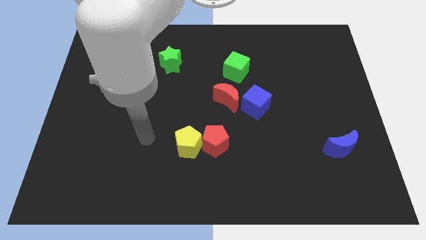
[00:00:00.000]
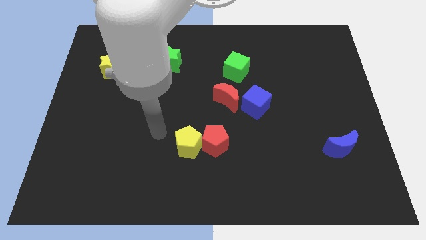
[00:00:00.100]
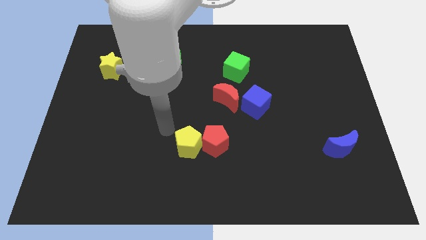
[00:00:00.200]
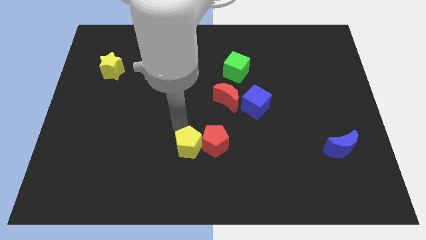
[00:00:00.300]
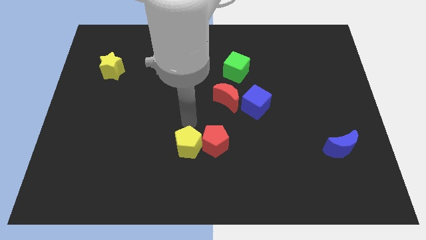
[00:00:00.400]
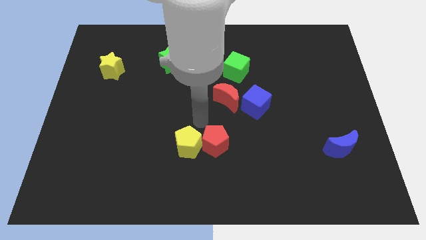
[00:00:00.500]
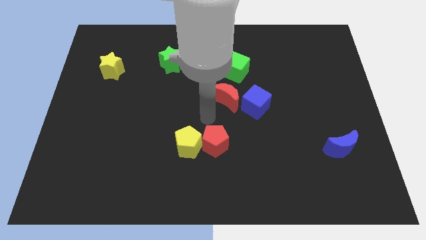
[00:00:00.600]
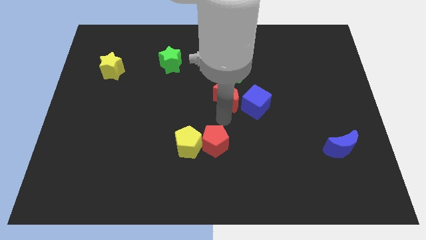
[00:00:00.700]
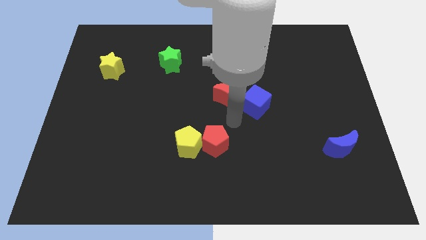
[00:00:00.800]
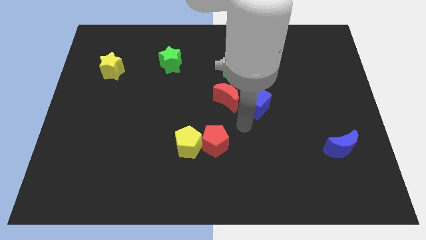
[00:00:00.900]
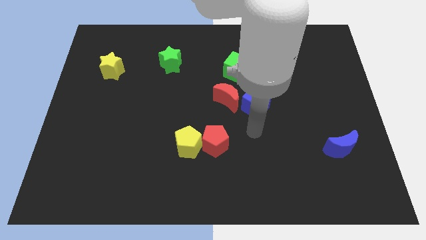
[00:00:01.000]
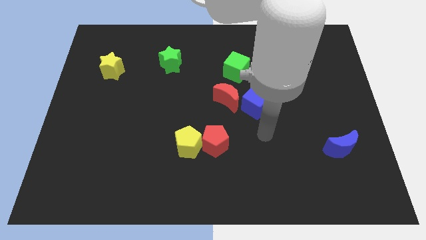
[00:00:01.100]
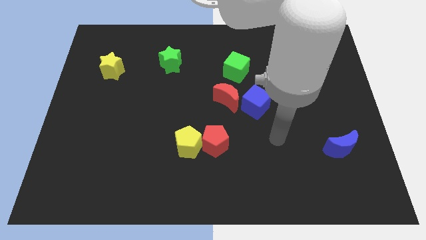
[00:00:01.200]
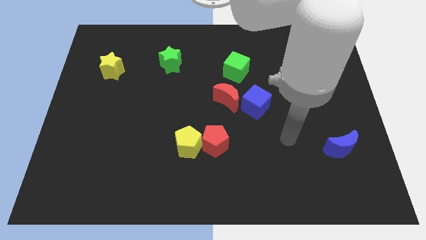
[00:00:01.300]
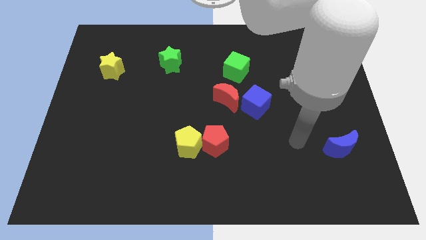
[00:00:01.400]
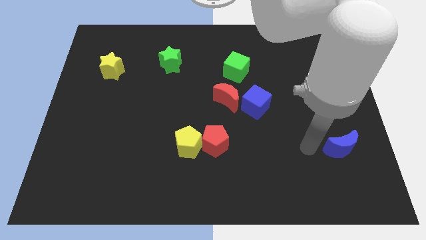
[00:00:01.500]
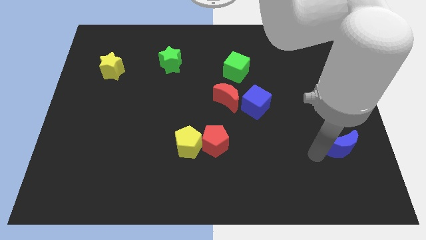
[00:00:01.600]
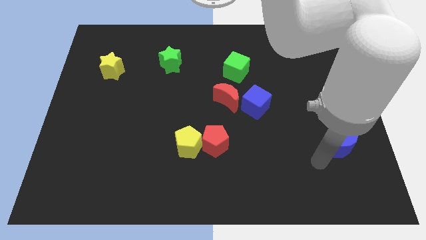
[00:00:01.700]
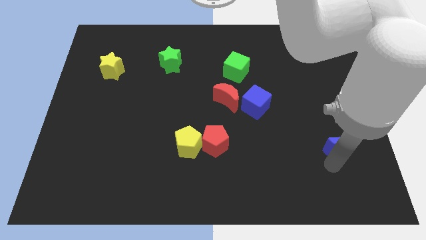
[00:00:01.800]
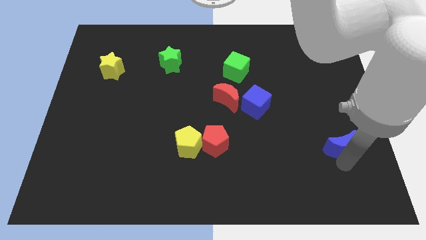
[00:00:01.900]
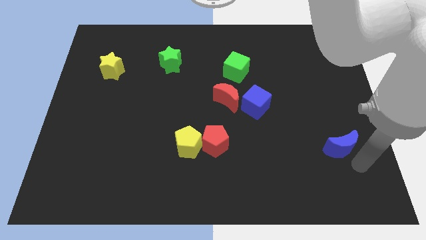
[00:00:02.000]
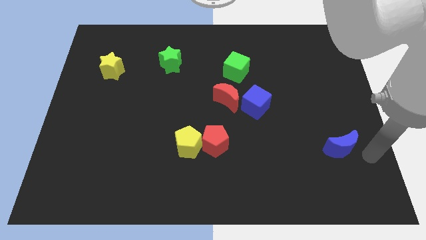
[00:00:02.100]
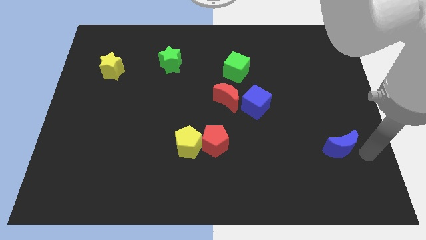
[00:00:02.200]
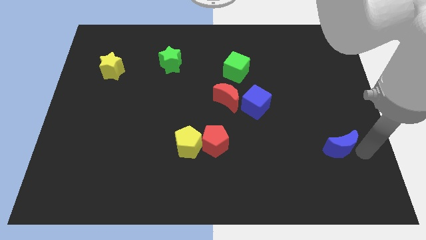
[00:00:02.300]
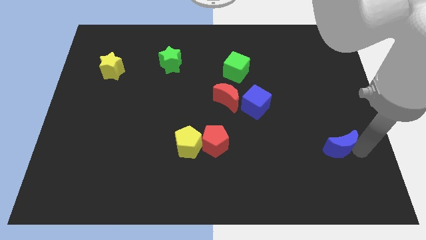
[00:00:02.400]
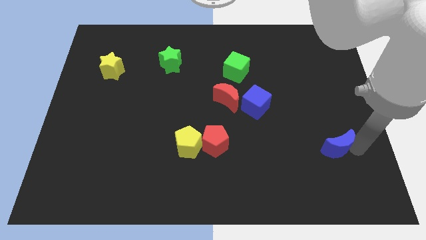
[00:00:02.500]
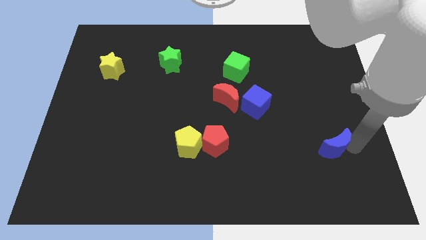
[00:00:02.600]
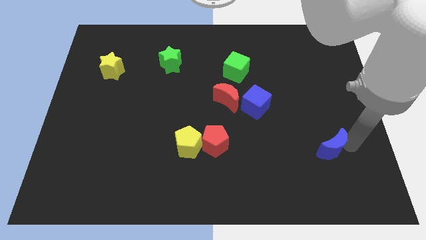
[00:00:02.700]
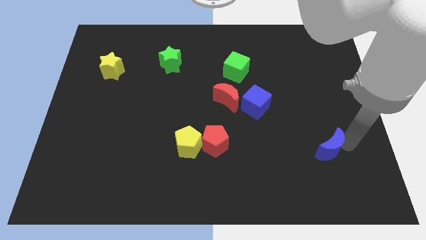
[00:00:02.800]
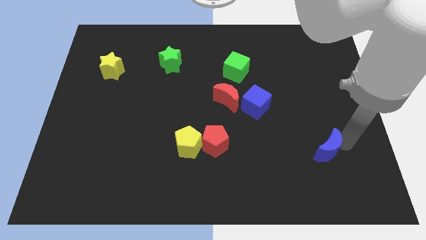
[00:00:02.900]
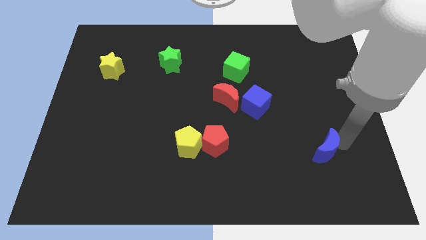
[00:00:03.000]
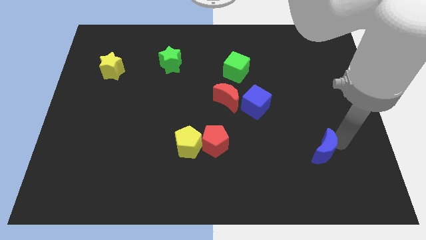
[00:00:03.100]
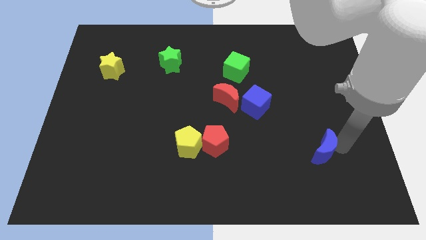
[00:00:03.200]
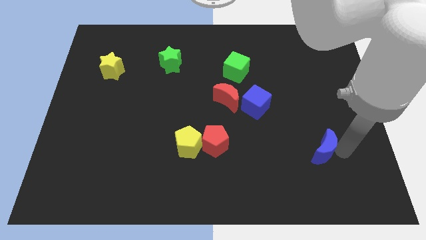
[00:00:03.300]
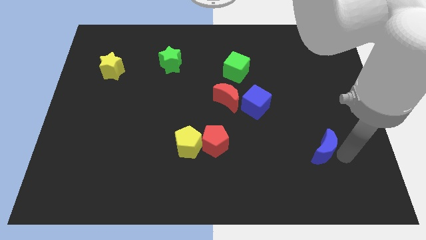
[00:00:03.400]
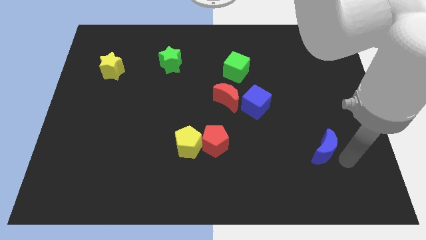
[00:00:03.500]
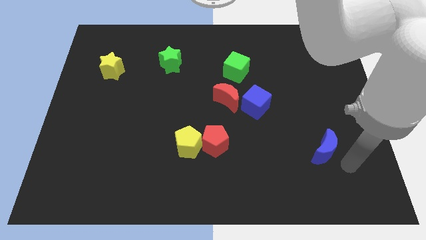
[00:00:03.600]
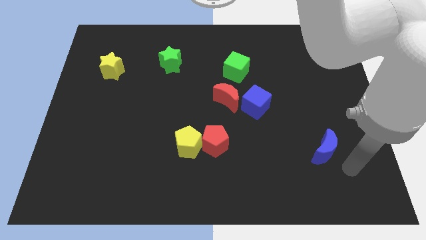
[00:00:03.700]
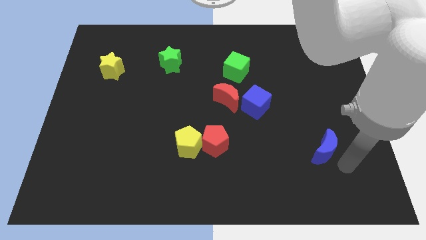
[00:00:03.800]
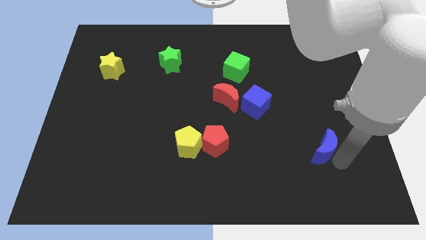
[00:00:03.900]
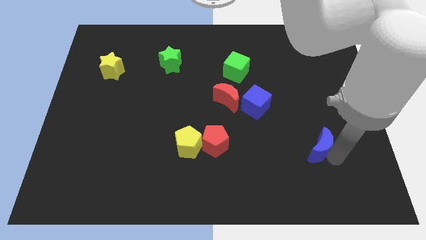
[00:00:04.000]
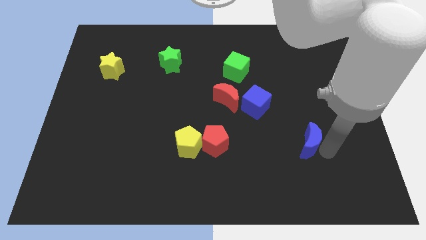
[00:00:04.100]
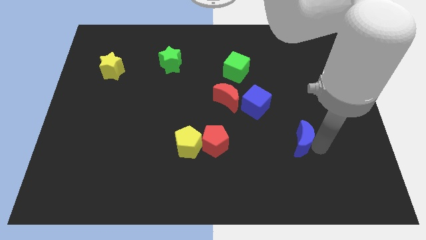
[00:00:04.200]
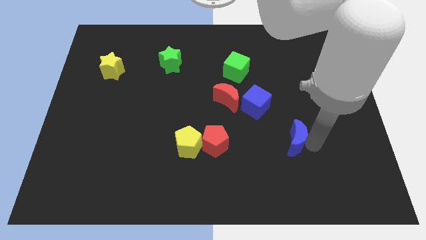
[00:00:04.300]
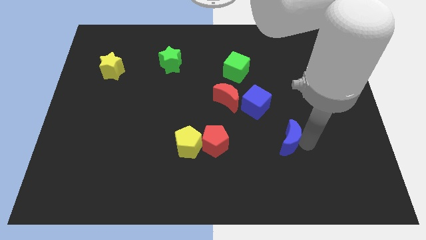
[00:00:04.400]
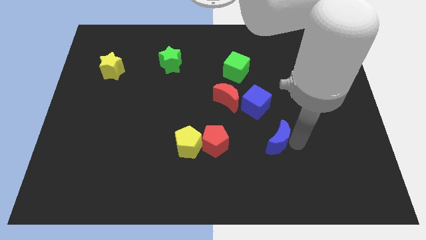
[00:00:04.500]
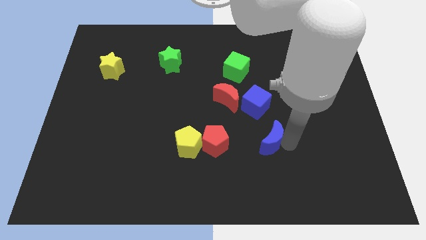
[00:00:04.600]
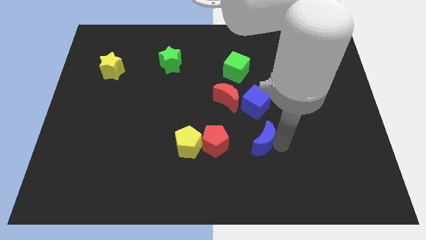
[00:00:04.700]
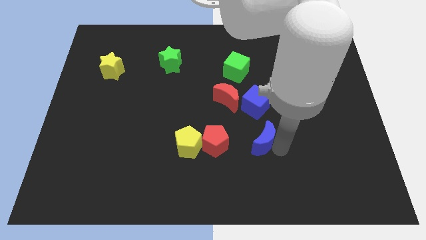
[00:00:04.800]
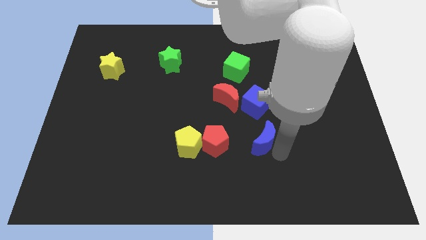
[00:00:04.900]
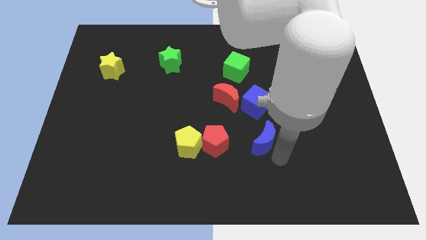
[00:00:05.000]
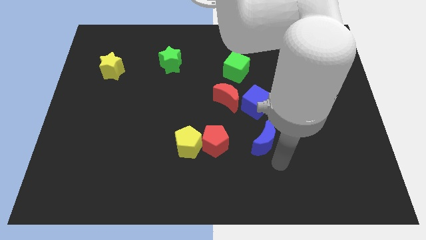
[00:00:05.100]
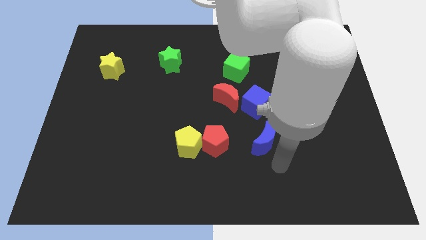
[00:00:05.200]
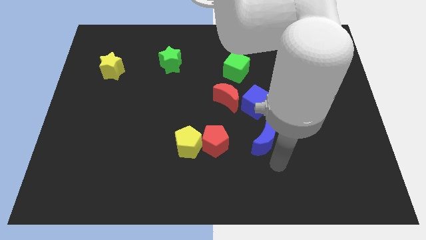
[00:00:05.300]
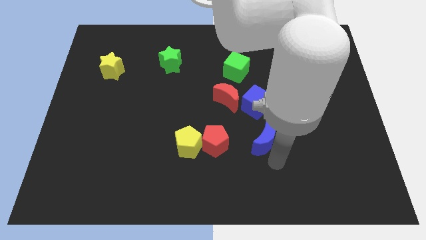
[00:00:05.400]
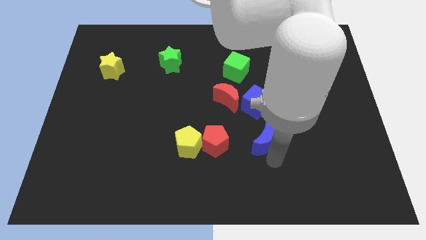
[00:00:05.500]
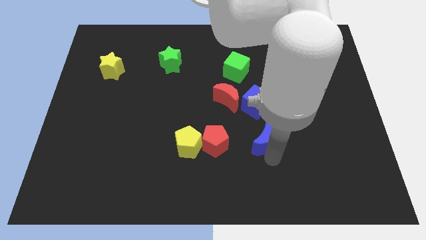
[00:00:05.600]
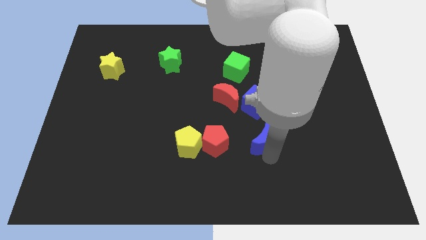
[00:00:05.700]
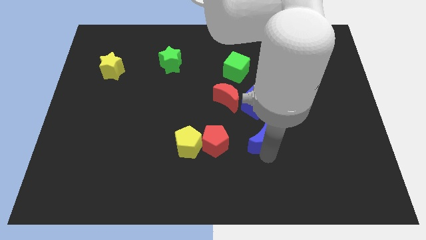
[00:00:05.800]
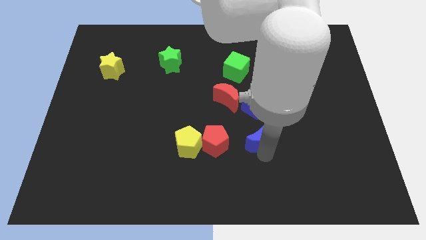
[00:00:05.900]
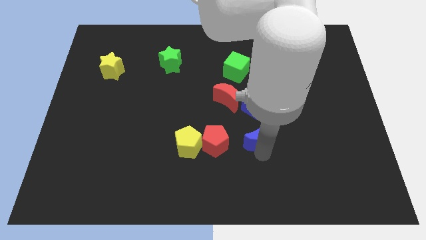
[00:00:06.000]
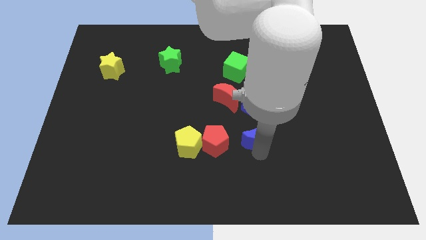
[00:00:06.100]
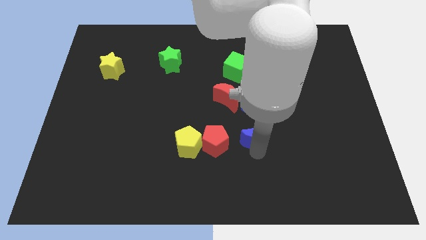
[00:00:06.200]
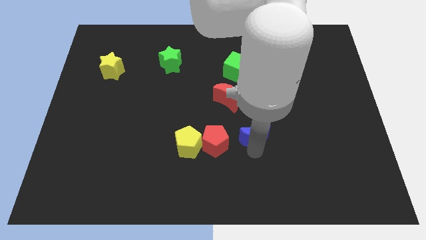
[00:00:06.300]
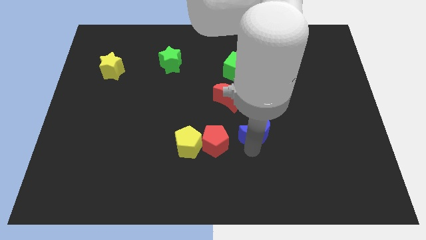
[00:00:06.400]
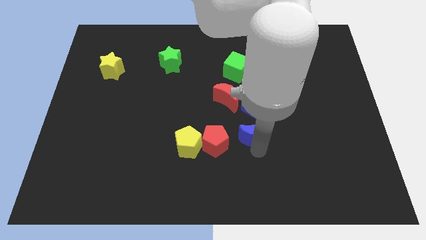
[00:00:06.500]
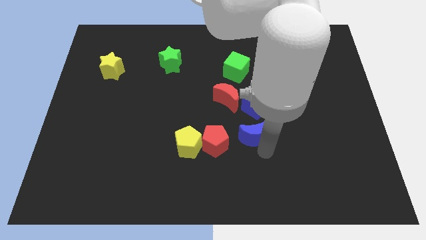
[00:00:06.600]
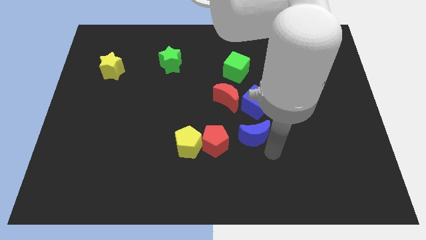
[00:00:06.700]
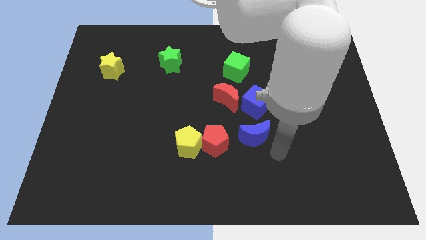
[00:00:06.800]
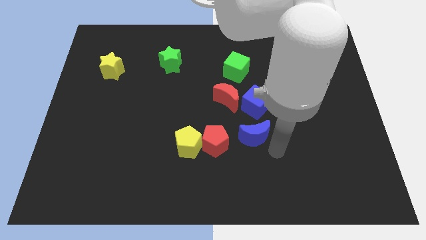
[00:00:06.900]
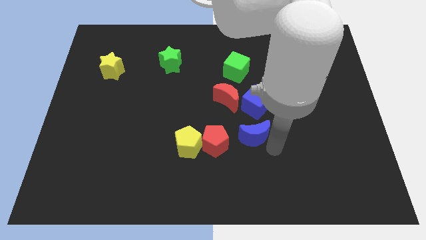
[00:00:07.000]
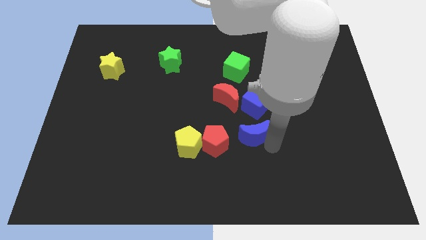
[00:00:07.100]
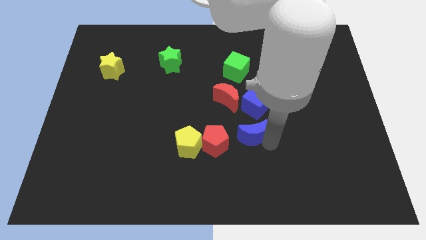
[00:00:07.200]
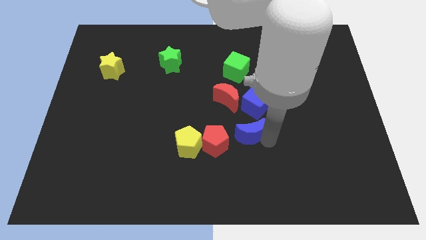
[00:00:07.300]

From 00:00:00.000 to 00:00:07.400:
move the blue moon diagonally down and to the left of the blue cube

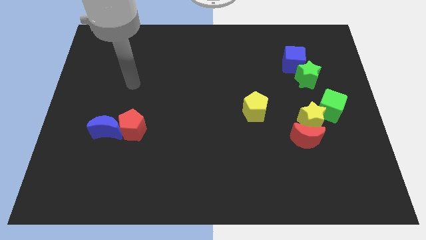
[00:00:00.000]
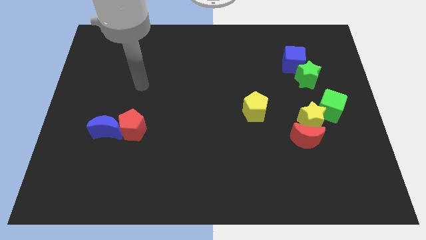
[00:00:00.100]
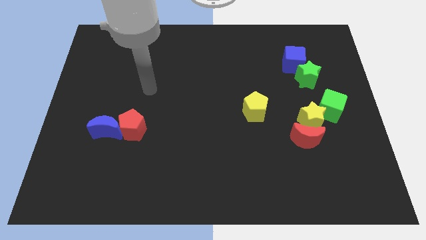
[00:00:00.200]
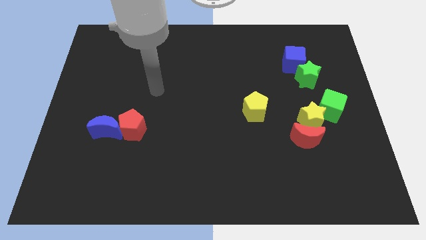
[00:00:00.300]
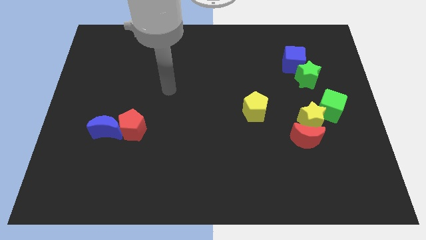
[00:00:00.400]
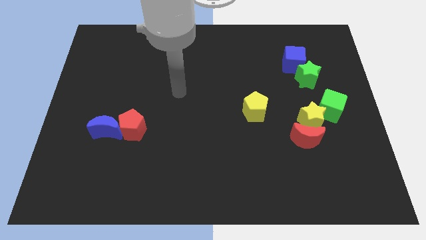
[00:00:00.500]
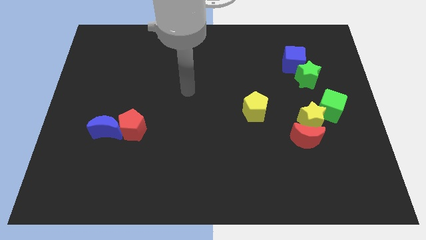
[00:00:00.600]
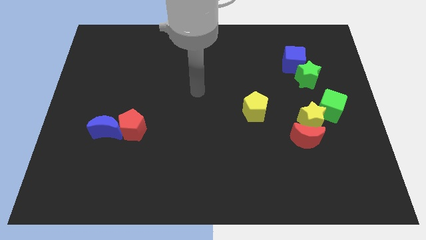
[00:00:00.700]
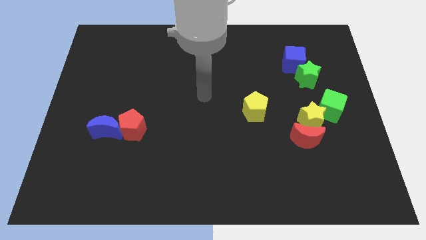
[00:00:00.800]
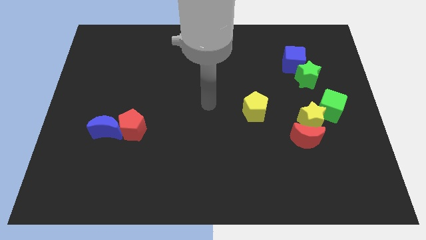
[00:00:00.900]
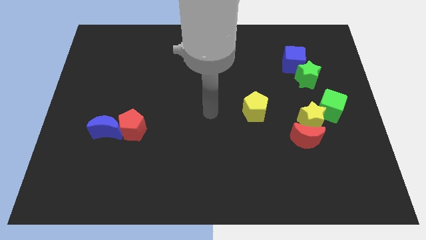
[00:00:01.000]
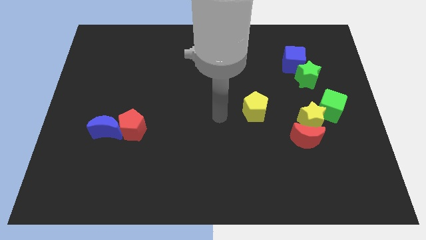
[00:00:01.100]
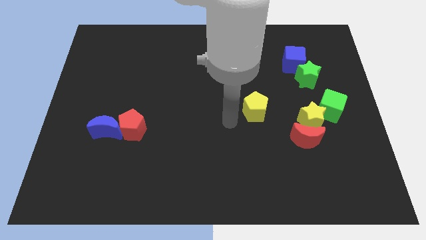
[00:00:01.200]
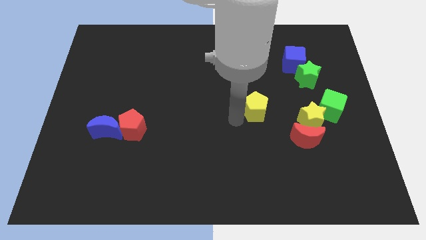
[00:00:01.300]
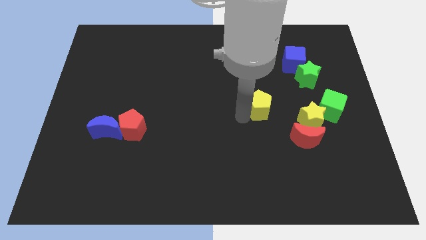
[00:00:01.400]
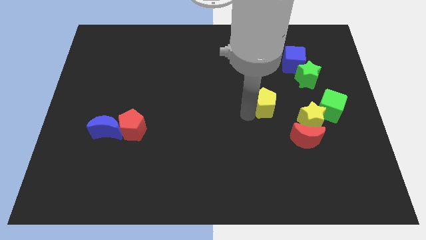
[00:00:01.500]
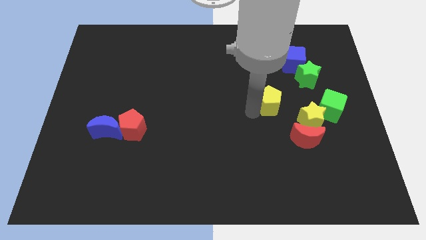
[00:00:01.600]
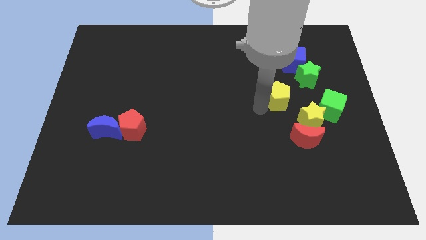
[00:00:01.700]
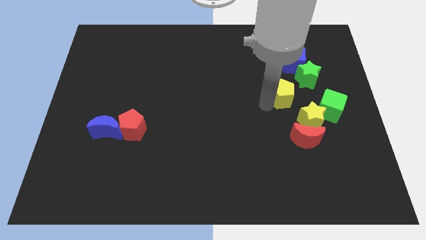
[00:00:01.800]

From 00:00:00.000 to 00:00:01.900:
put the yellow pentagon to the bottom side of the blue cube
